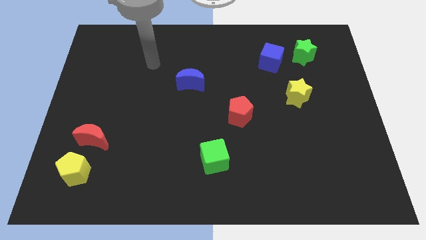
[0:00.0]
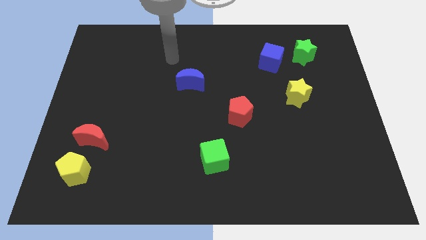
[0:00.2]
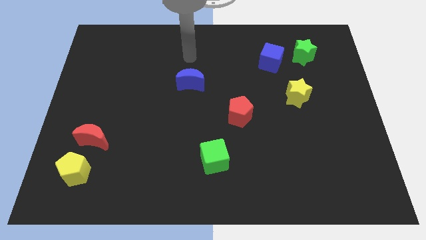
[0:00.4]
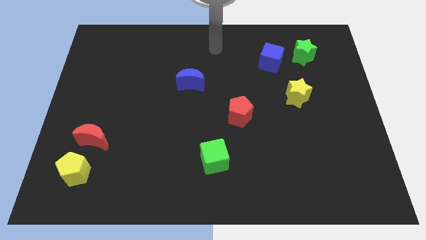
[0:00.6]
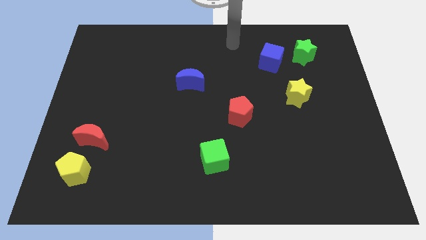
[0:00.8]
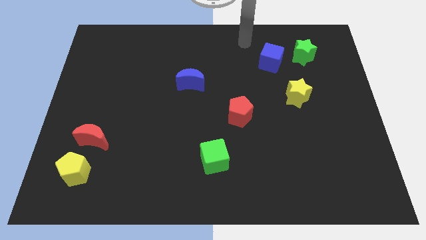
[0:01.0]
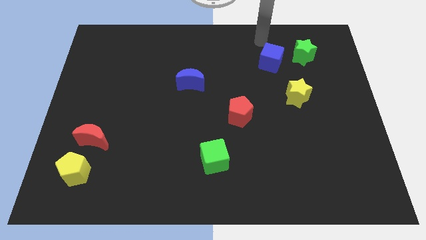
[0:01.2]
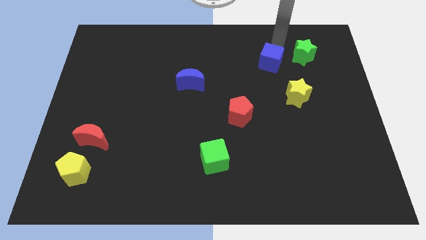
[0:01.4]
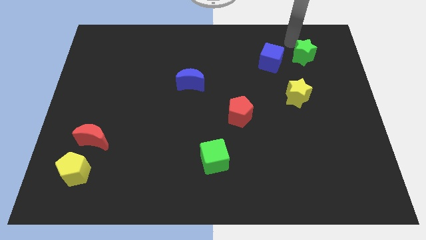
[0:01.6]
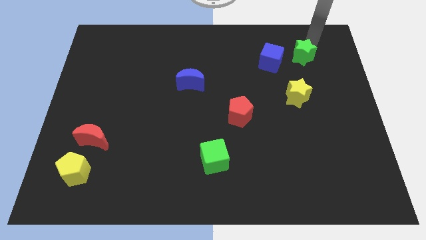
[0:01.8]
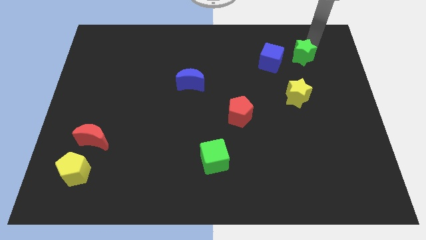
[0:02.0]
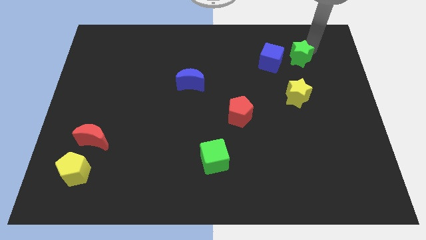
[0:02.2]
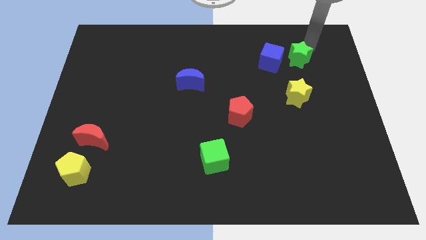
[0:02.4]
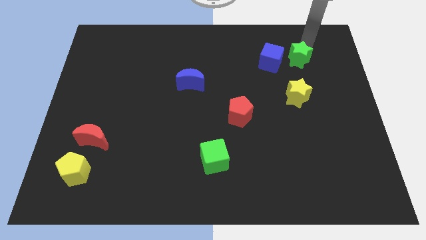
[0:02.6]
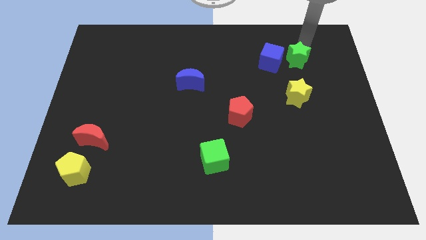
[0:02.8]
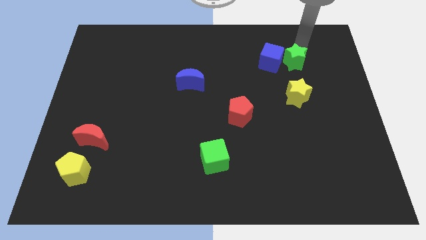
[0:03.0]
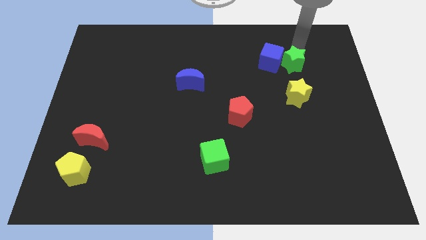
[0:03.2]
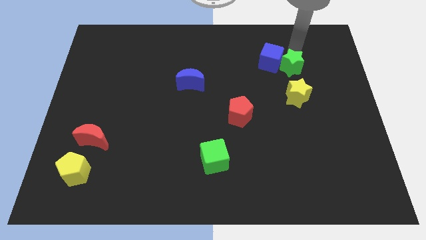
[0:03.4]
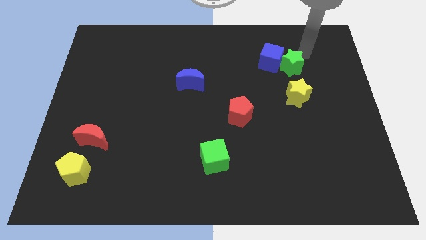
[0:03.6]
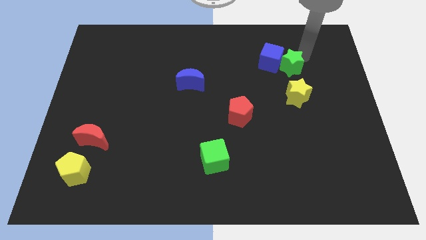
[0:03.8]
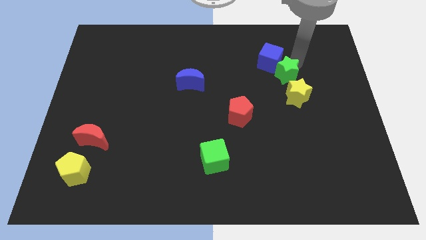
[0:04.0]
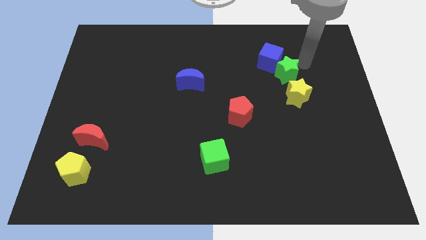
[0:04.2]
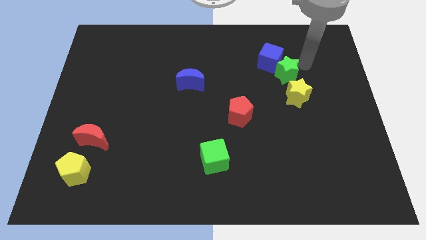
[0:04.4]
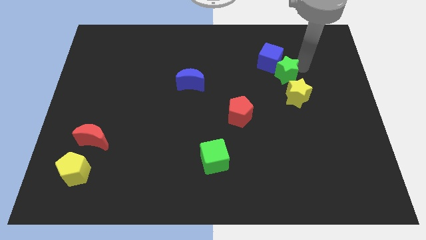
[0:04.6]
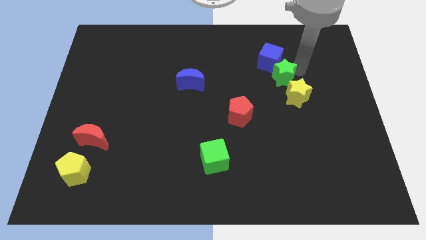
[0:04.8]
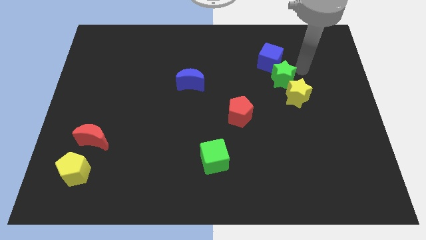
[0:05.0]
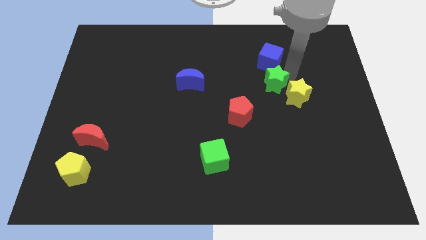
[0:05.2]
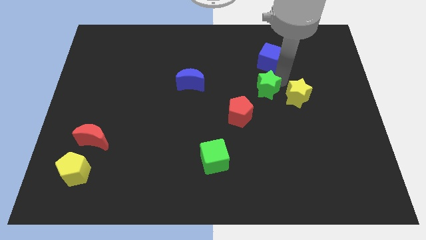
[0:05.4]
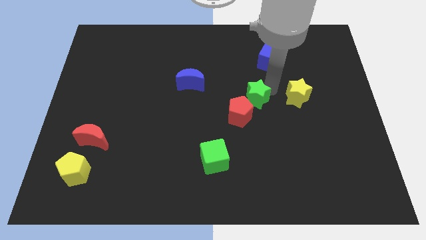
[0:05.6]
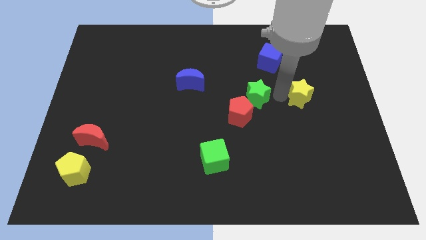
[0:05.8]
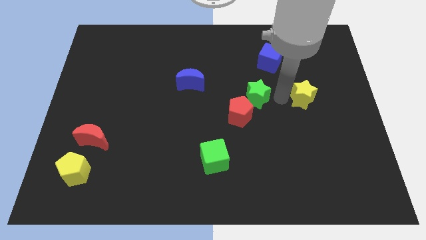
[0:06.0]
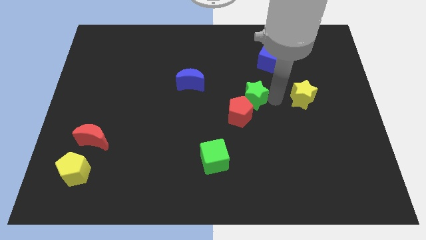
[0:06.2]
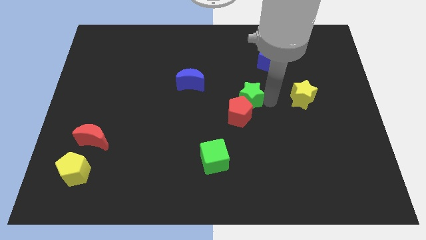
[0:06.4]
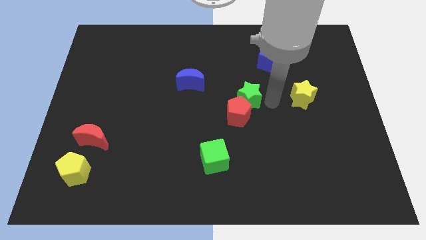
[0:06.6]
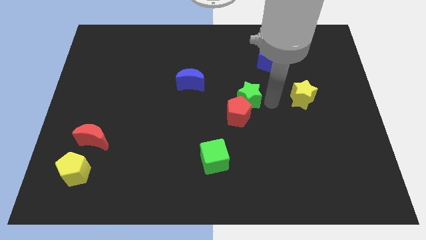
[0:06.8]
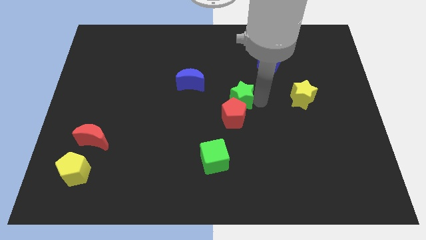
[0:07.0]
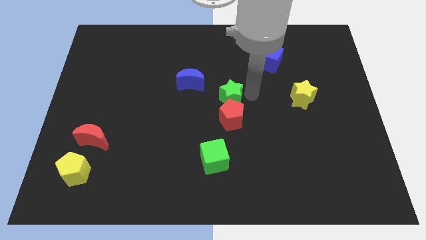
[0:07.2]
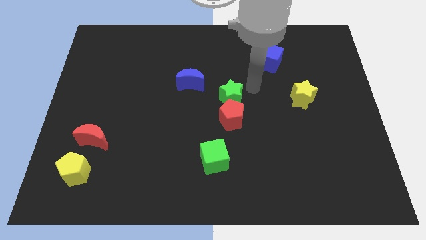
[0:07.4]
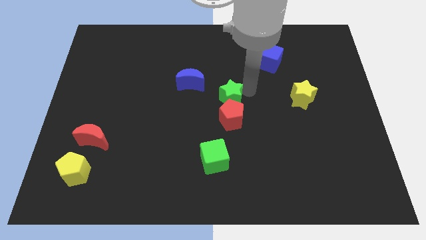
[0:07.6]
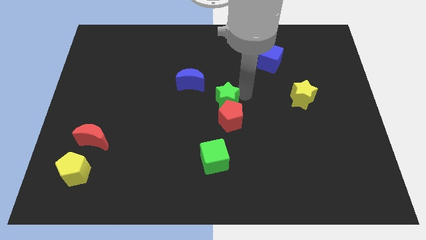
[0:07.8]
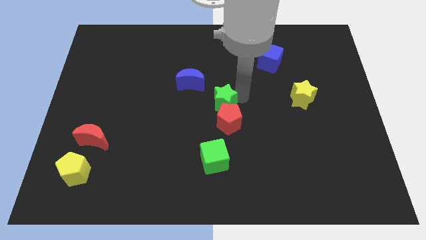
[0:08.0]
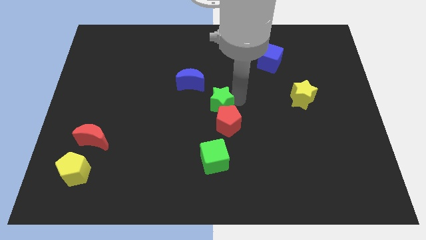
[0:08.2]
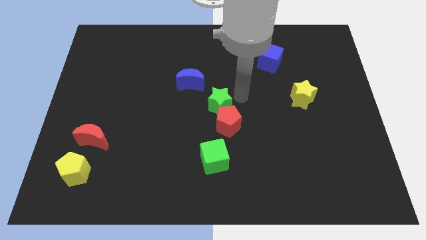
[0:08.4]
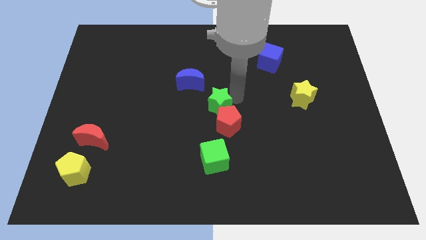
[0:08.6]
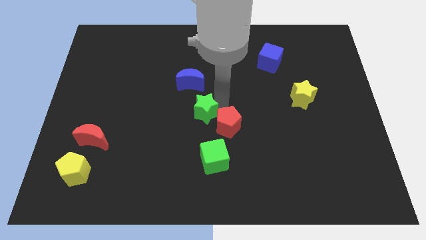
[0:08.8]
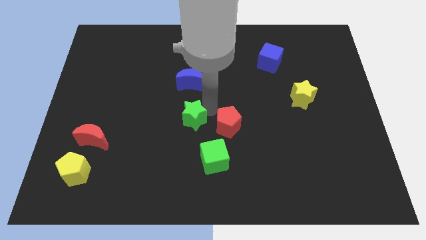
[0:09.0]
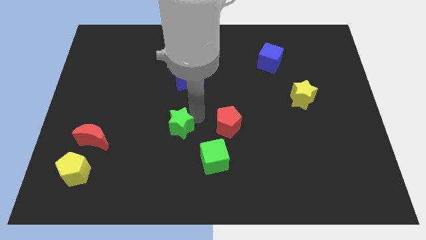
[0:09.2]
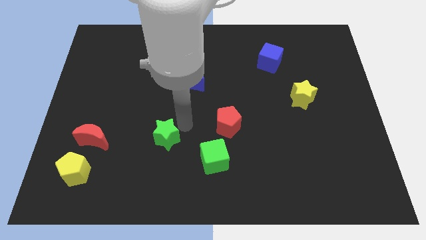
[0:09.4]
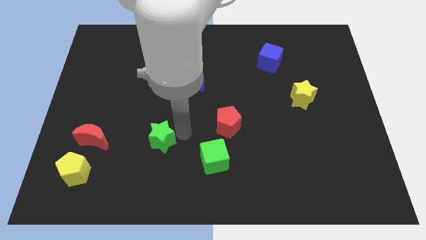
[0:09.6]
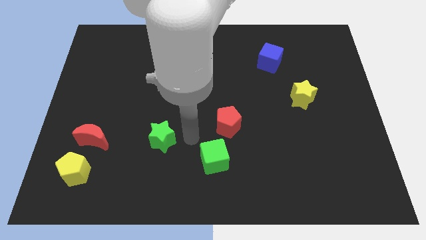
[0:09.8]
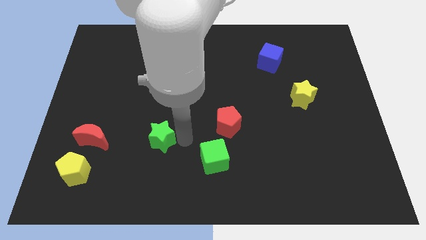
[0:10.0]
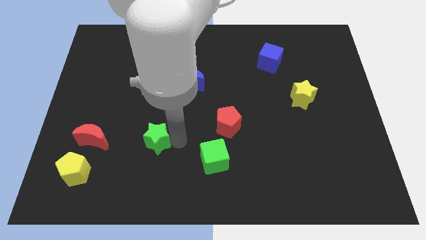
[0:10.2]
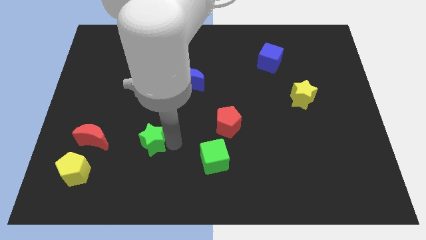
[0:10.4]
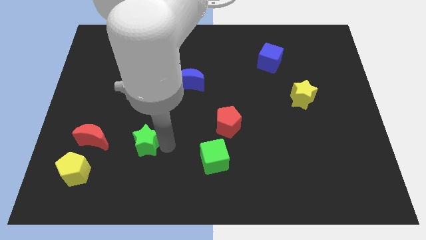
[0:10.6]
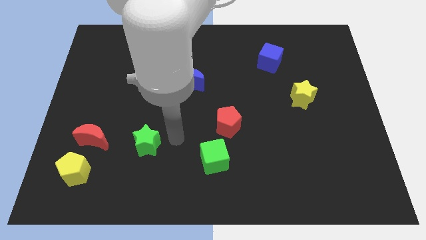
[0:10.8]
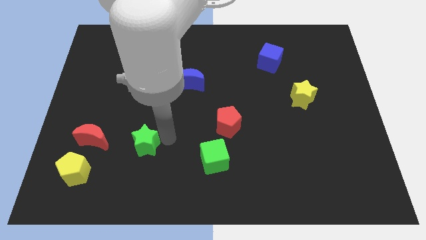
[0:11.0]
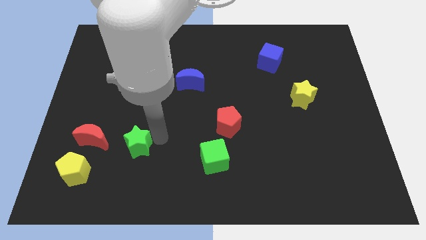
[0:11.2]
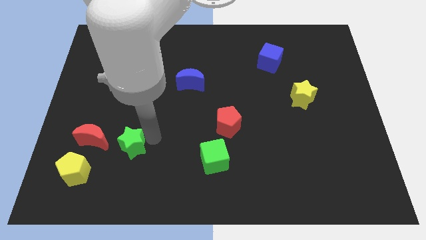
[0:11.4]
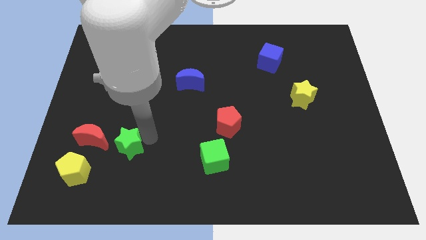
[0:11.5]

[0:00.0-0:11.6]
put the green star to the top right of the yellow pentagon
